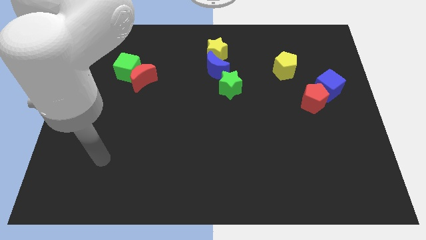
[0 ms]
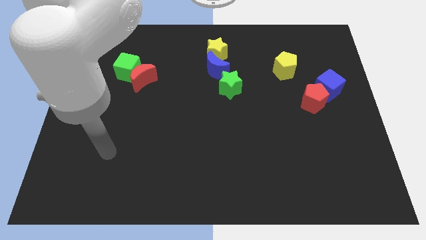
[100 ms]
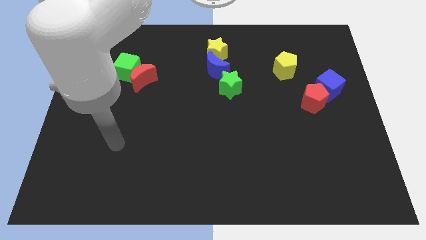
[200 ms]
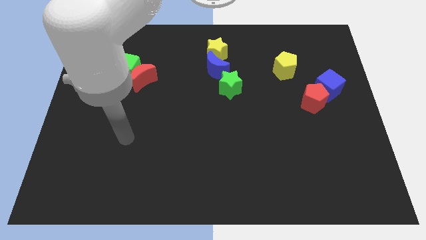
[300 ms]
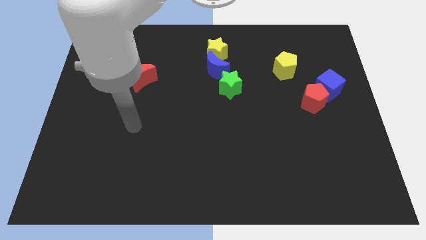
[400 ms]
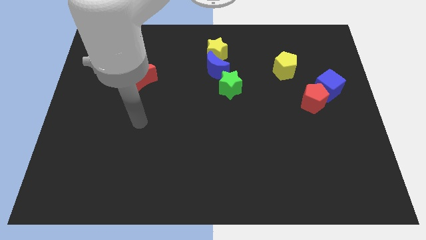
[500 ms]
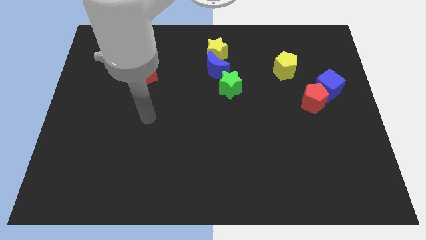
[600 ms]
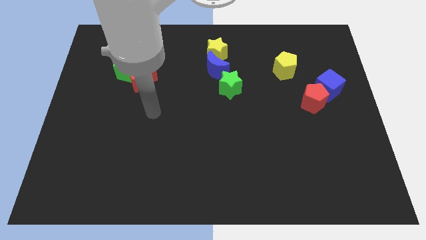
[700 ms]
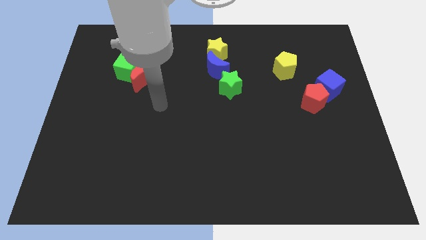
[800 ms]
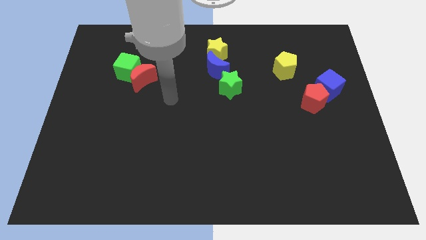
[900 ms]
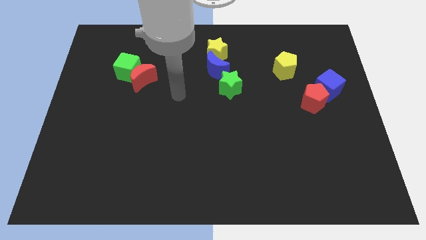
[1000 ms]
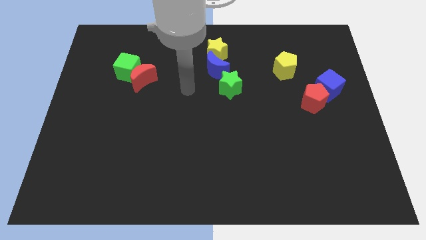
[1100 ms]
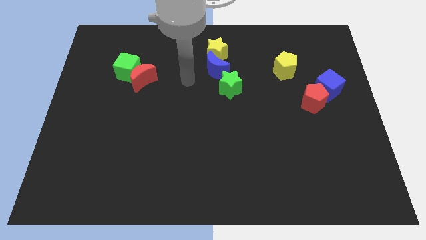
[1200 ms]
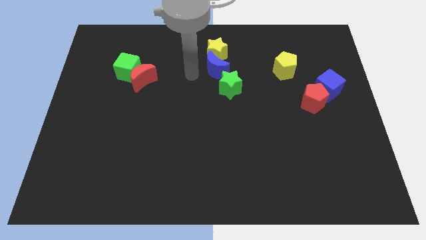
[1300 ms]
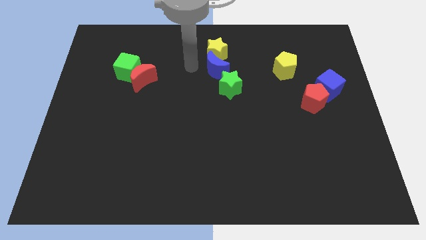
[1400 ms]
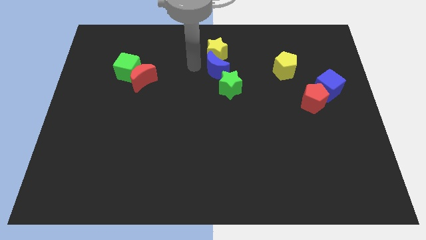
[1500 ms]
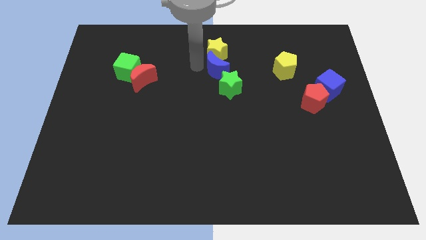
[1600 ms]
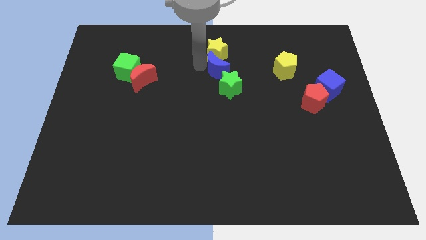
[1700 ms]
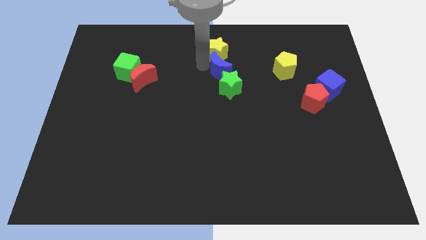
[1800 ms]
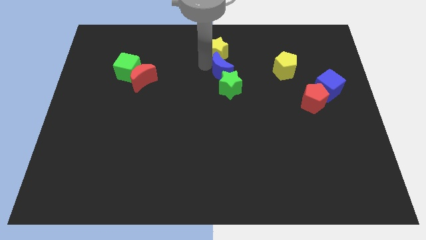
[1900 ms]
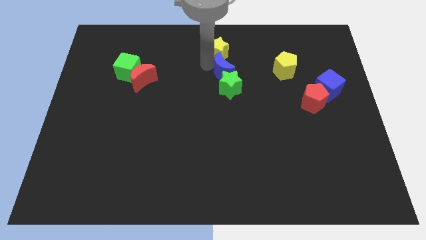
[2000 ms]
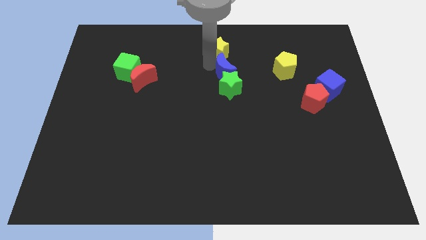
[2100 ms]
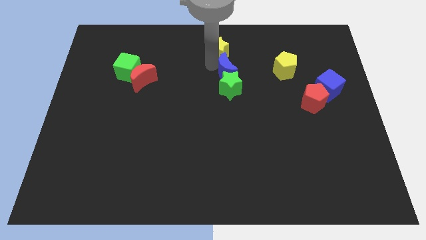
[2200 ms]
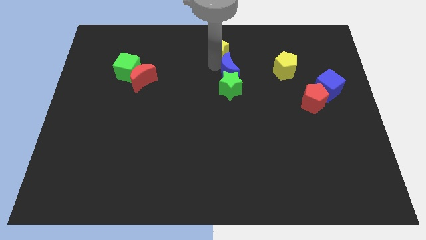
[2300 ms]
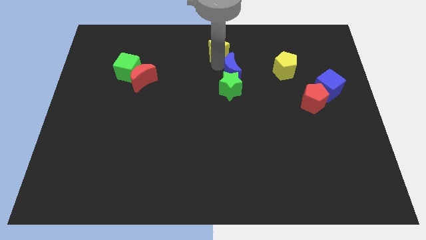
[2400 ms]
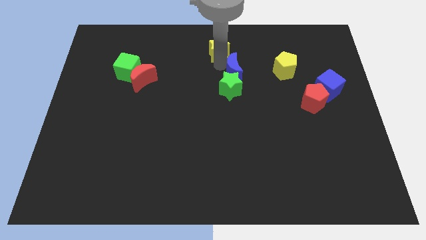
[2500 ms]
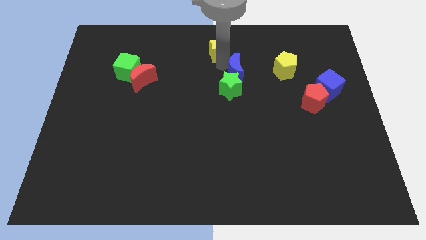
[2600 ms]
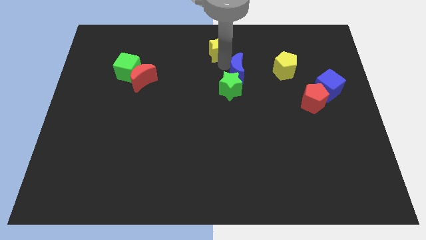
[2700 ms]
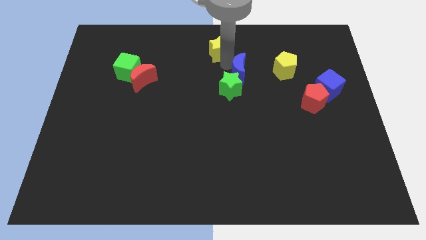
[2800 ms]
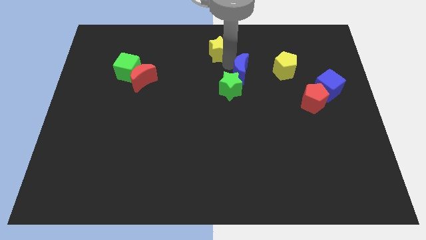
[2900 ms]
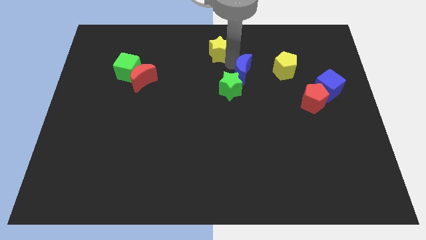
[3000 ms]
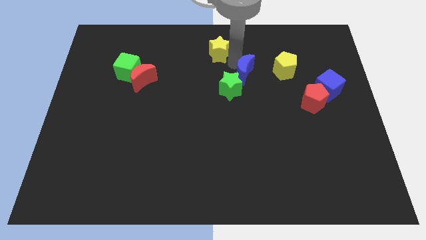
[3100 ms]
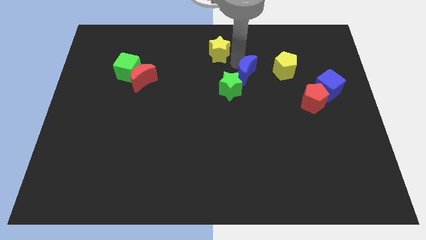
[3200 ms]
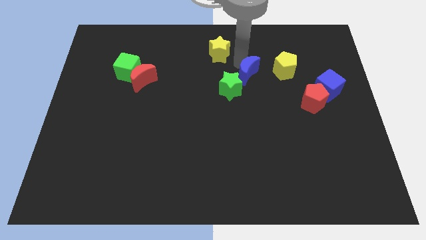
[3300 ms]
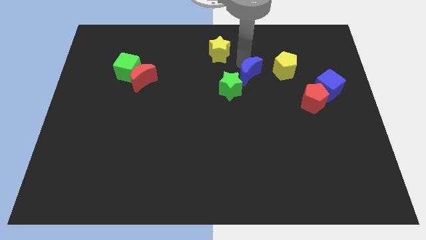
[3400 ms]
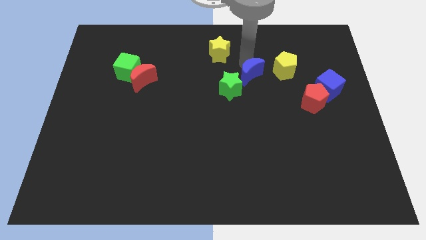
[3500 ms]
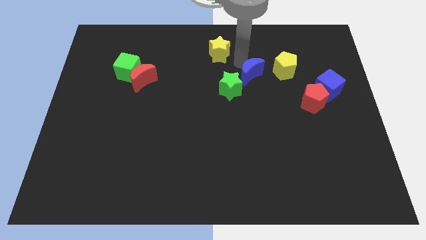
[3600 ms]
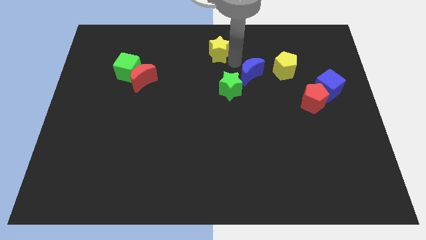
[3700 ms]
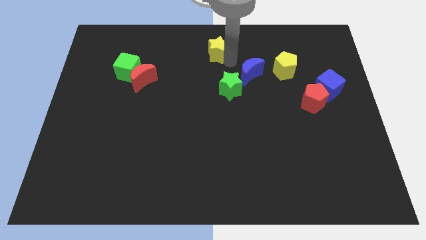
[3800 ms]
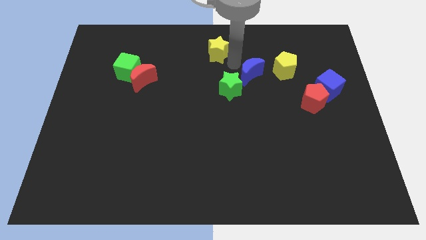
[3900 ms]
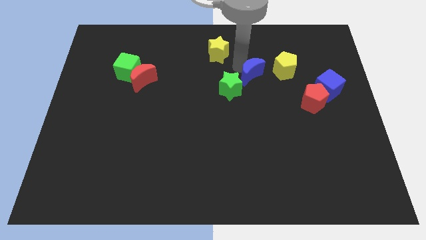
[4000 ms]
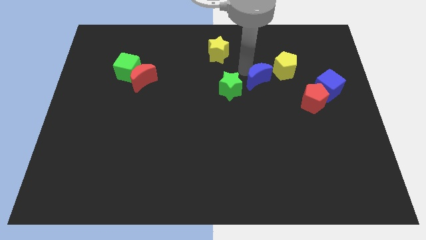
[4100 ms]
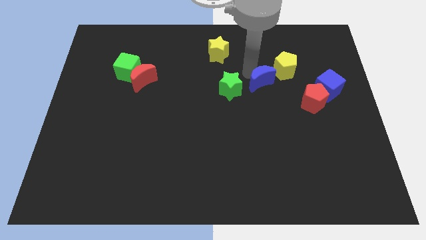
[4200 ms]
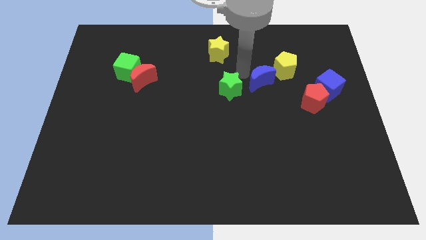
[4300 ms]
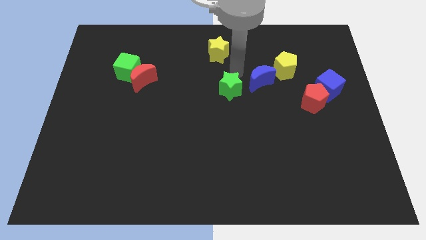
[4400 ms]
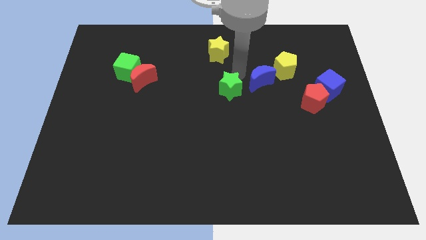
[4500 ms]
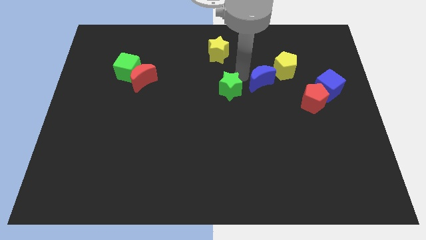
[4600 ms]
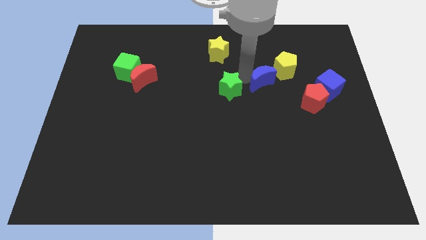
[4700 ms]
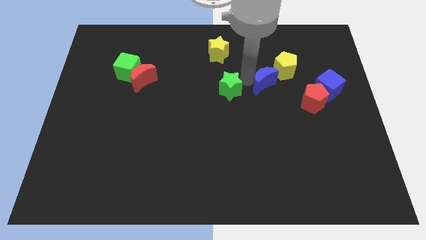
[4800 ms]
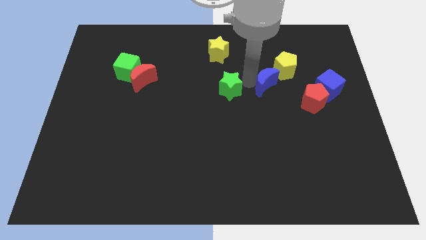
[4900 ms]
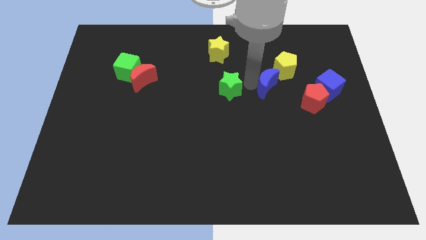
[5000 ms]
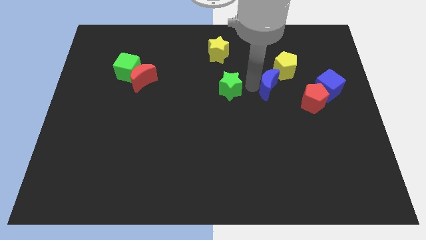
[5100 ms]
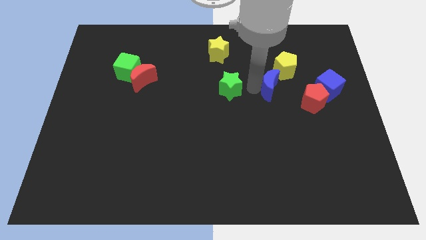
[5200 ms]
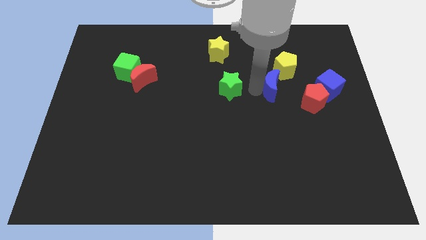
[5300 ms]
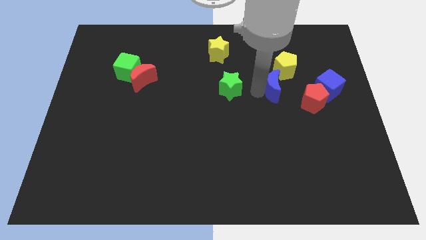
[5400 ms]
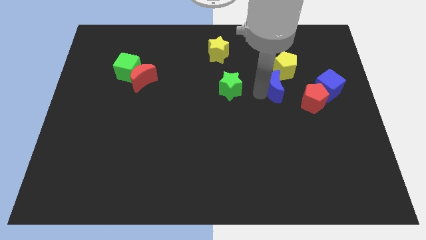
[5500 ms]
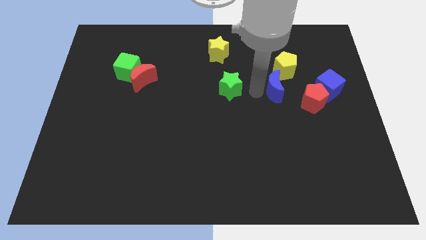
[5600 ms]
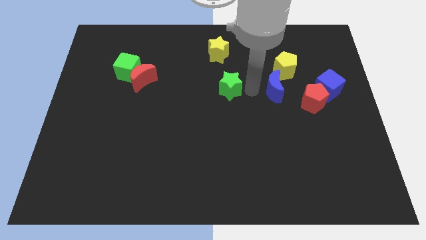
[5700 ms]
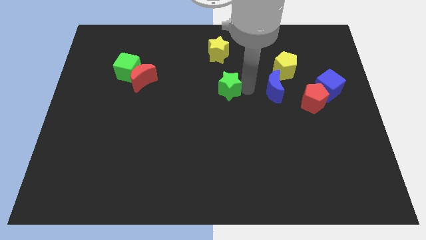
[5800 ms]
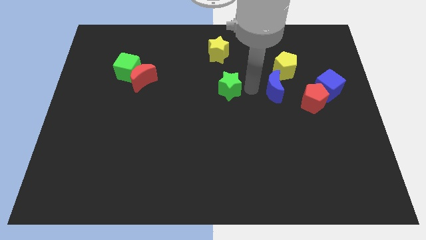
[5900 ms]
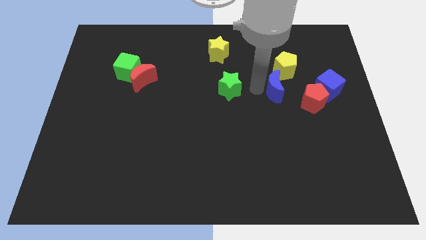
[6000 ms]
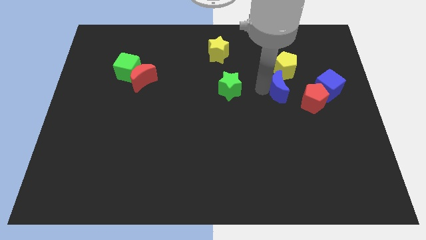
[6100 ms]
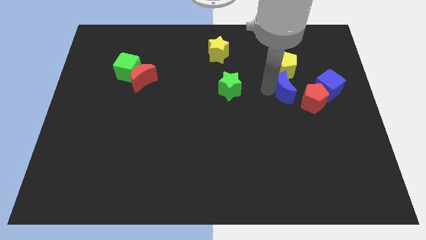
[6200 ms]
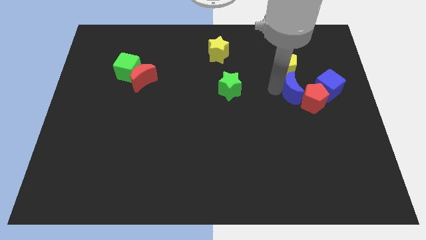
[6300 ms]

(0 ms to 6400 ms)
put the blue moon next to the red pentagon
